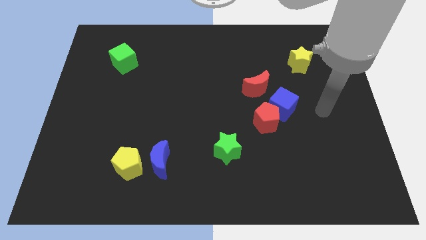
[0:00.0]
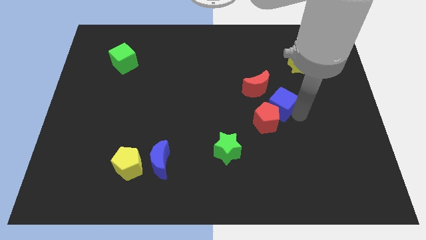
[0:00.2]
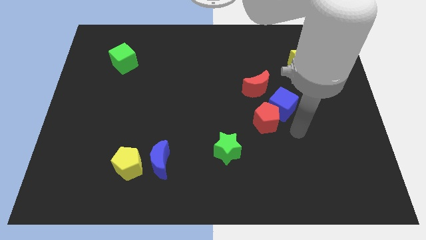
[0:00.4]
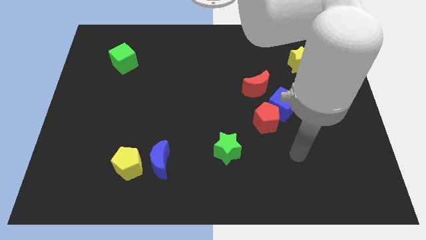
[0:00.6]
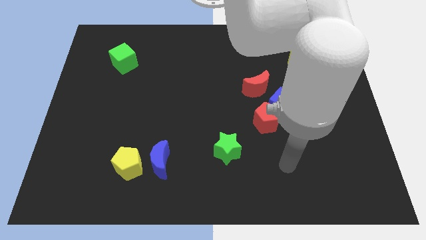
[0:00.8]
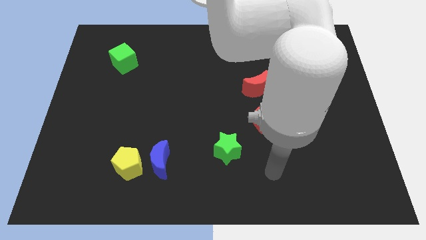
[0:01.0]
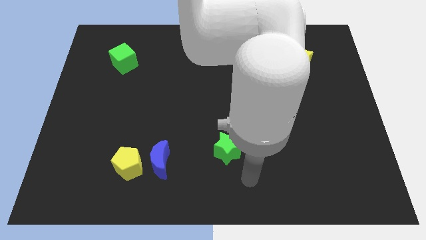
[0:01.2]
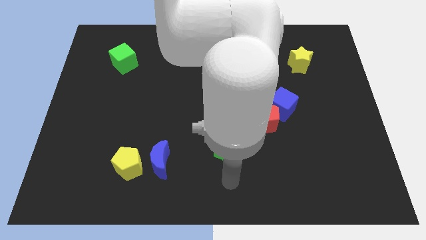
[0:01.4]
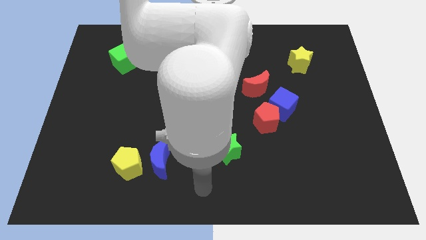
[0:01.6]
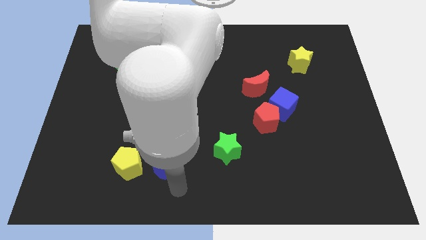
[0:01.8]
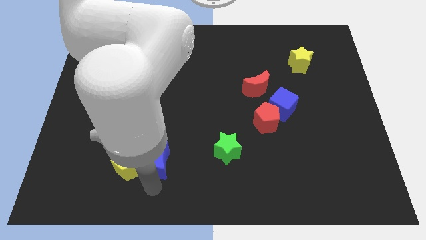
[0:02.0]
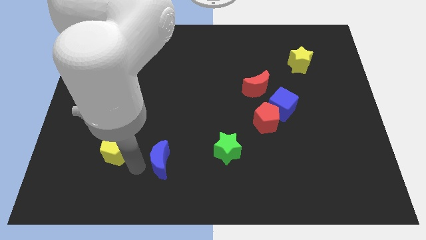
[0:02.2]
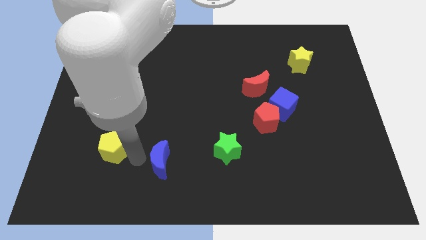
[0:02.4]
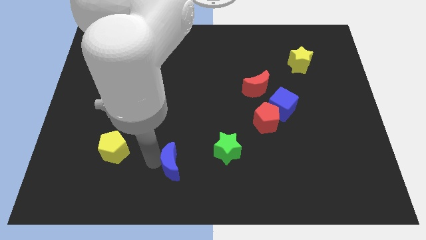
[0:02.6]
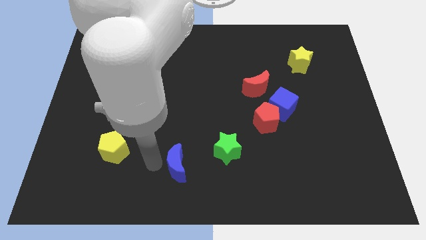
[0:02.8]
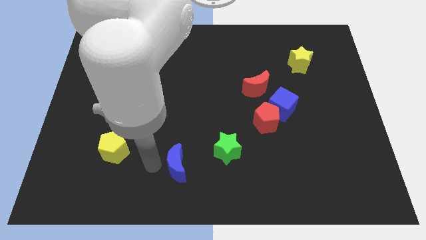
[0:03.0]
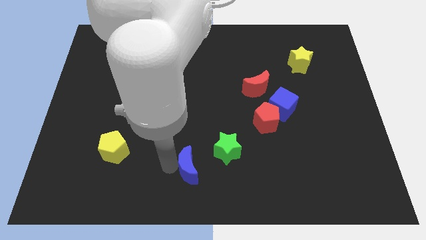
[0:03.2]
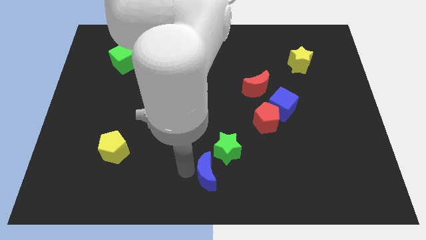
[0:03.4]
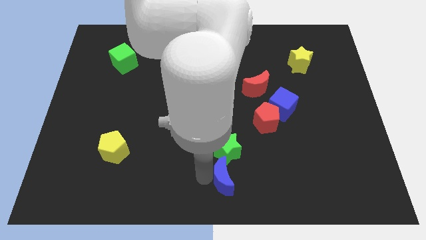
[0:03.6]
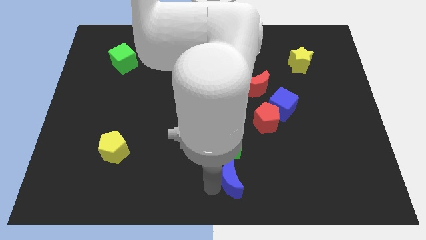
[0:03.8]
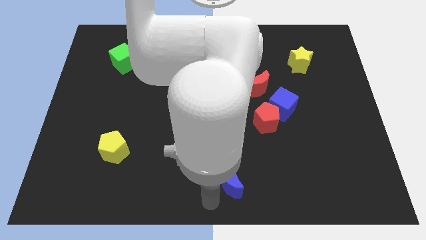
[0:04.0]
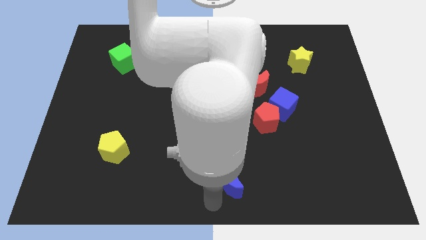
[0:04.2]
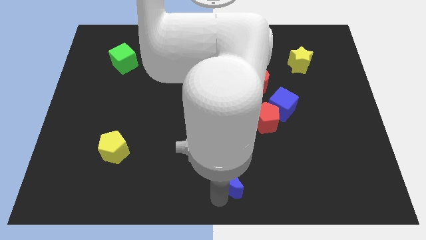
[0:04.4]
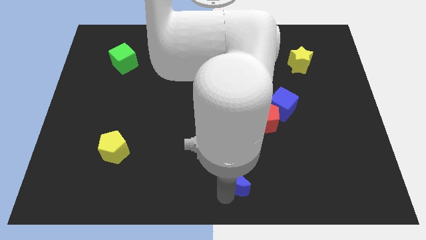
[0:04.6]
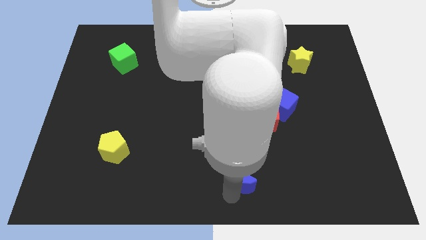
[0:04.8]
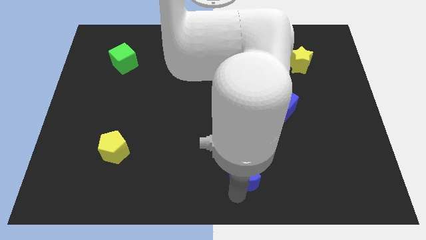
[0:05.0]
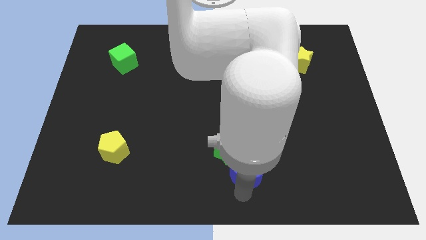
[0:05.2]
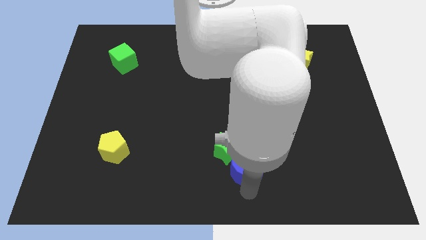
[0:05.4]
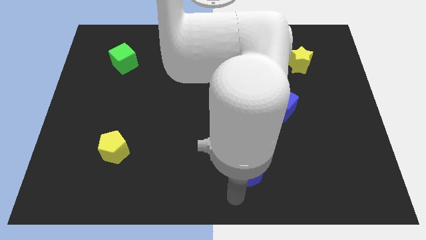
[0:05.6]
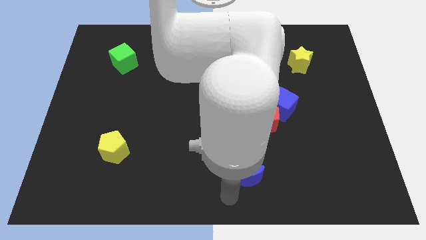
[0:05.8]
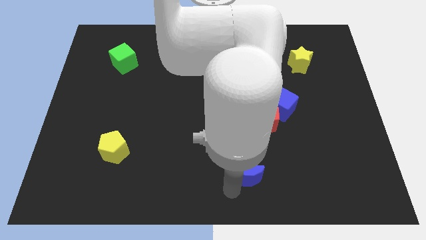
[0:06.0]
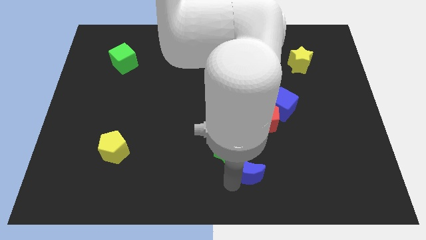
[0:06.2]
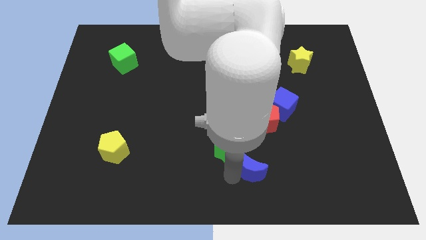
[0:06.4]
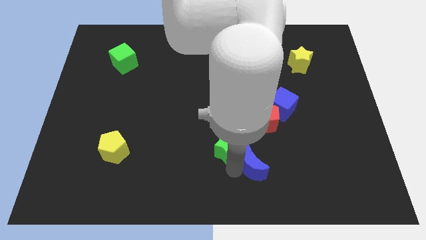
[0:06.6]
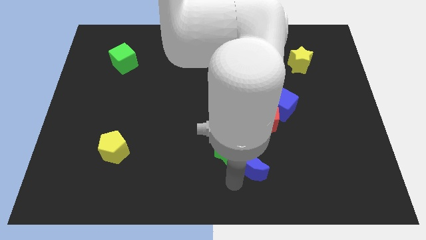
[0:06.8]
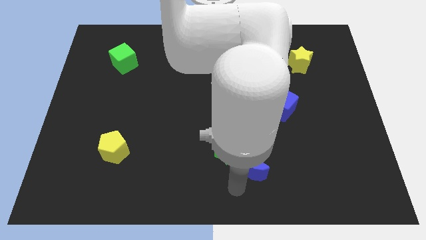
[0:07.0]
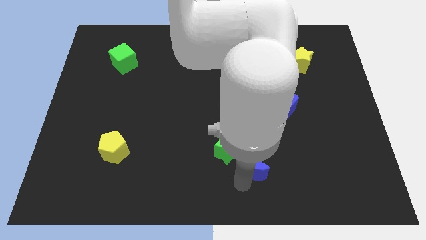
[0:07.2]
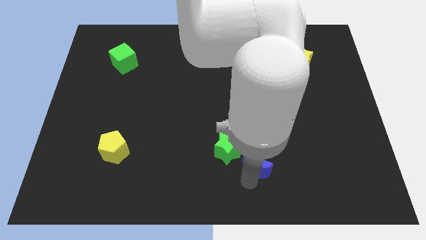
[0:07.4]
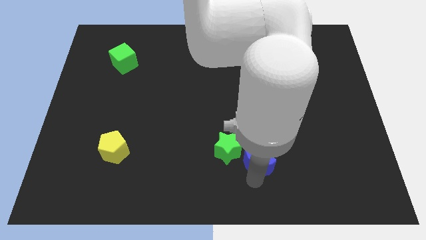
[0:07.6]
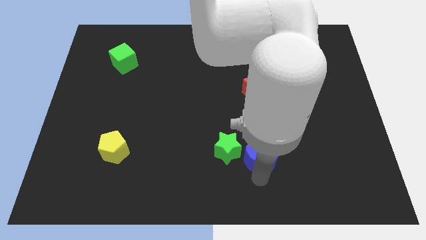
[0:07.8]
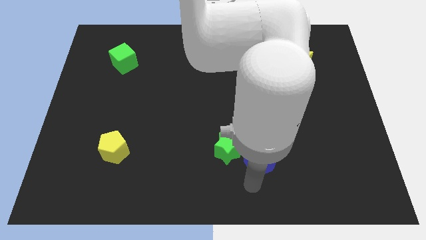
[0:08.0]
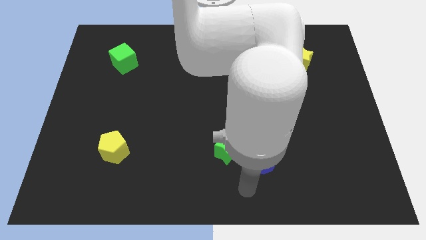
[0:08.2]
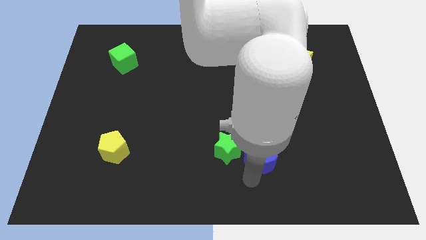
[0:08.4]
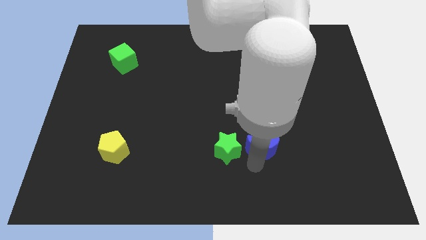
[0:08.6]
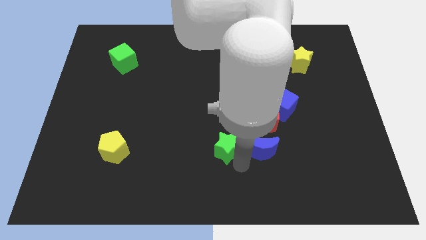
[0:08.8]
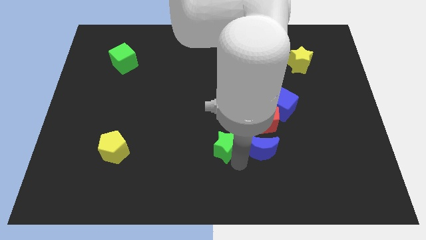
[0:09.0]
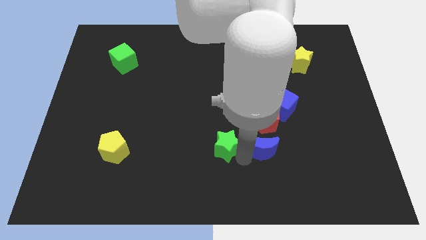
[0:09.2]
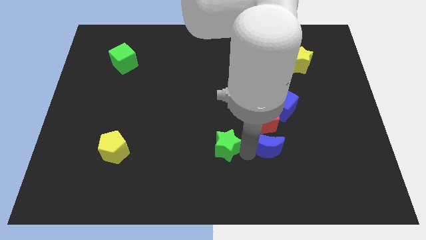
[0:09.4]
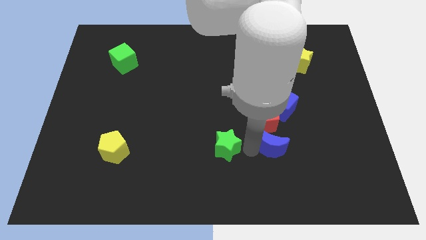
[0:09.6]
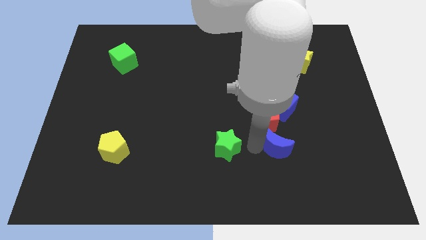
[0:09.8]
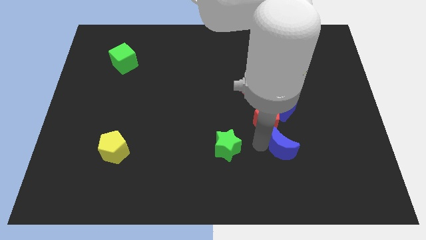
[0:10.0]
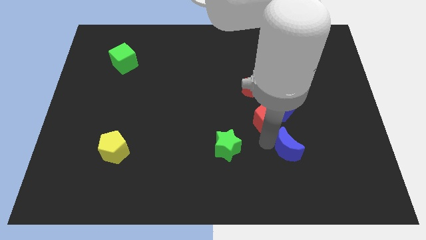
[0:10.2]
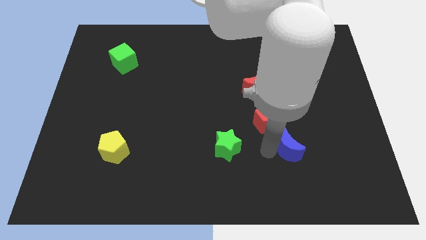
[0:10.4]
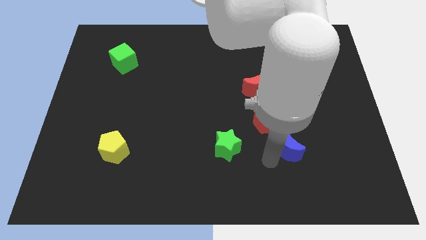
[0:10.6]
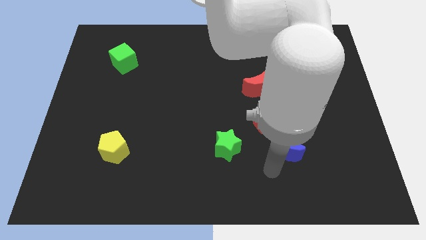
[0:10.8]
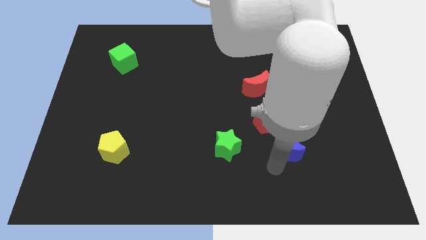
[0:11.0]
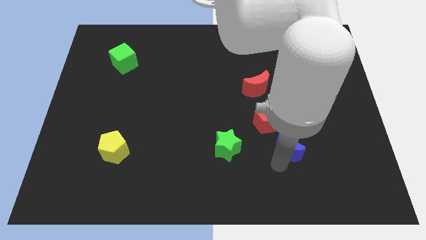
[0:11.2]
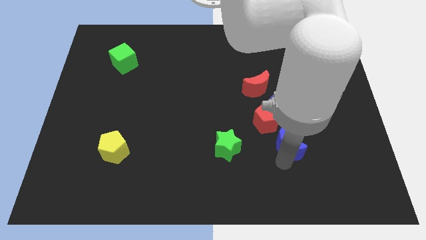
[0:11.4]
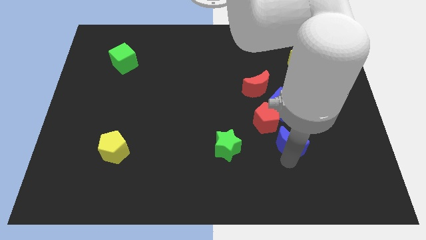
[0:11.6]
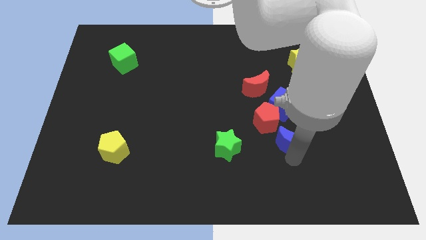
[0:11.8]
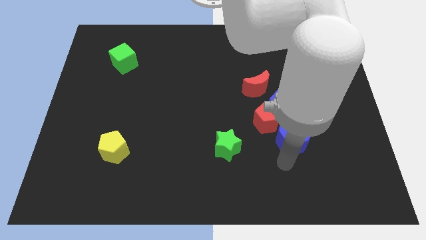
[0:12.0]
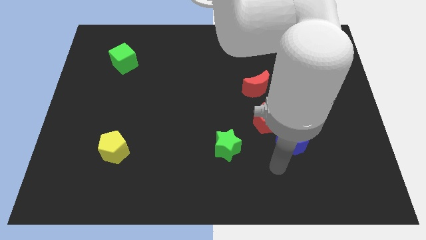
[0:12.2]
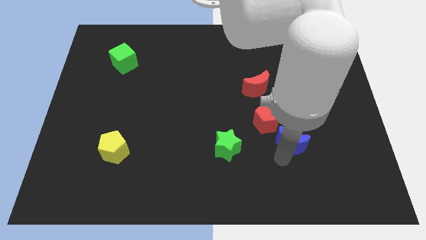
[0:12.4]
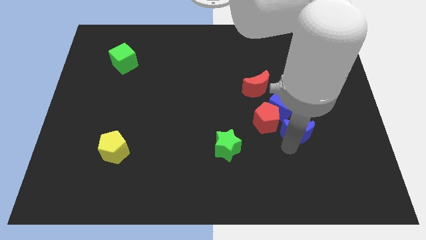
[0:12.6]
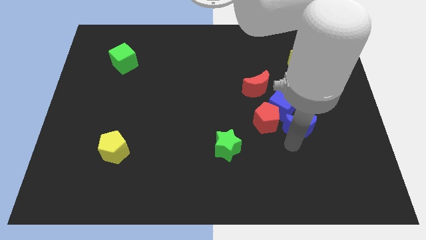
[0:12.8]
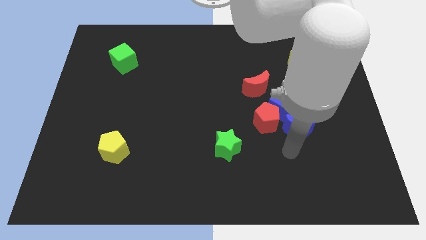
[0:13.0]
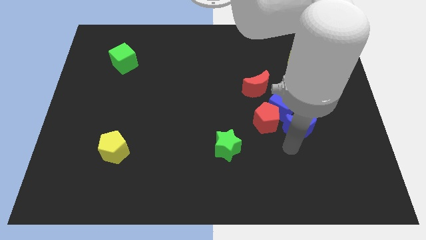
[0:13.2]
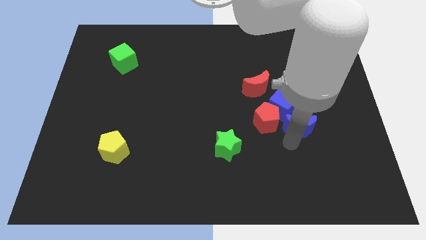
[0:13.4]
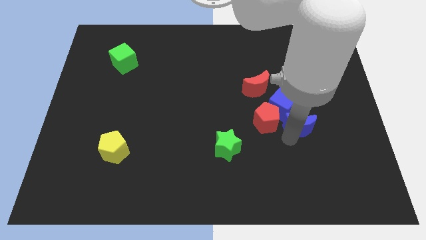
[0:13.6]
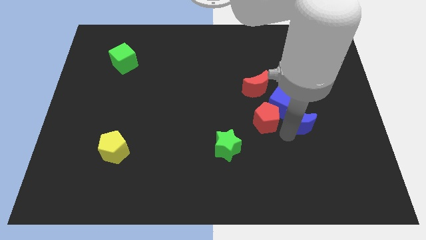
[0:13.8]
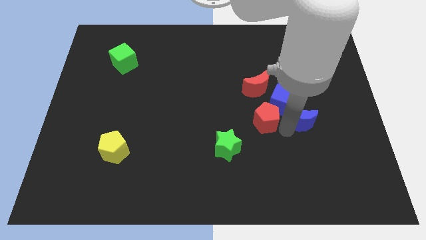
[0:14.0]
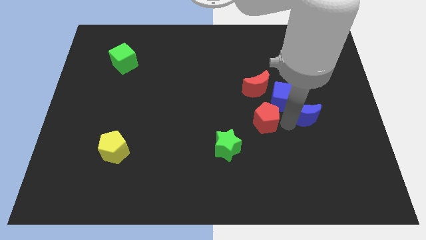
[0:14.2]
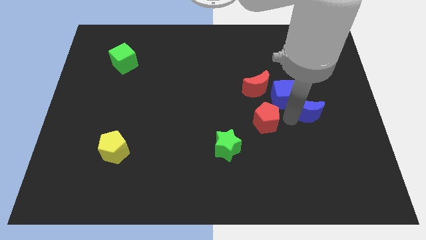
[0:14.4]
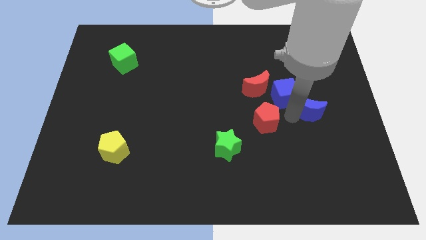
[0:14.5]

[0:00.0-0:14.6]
push the blue moon to the bottom side of the yellow star
